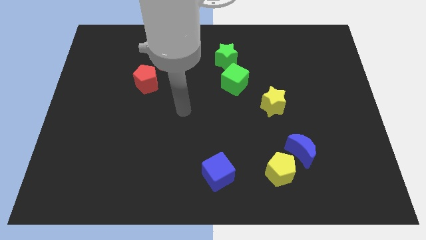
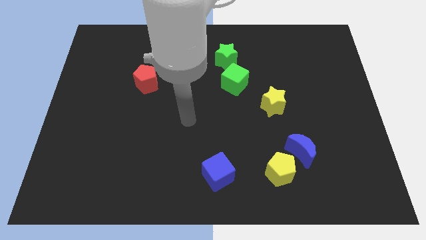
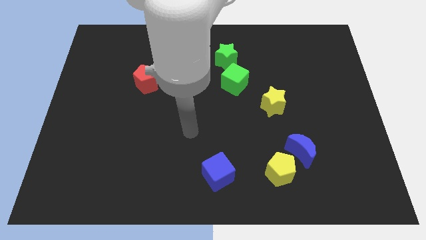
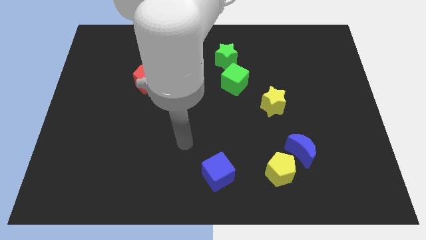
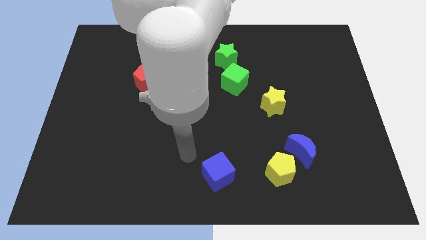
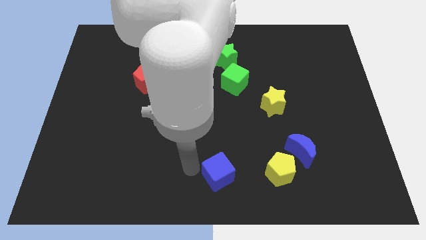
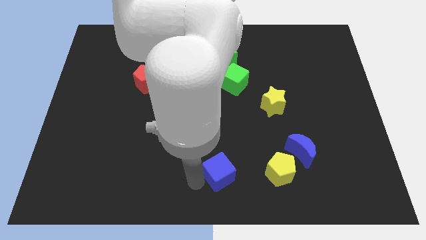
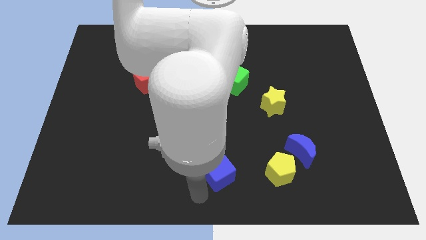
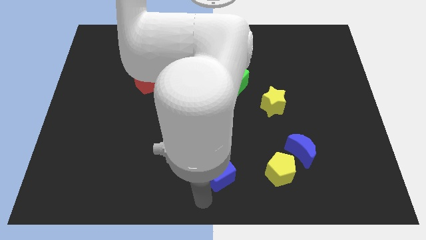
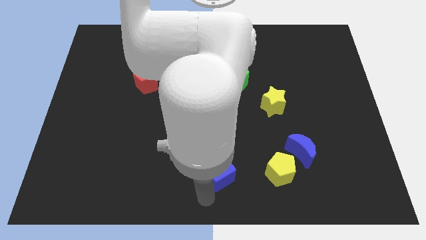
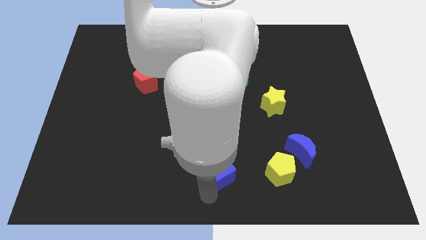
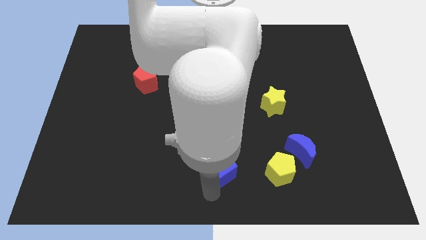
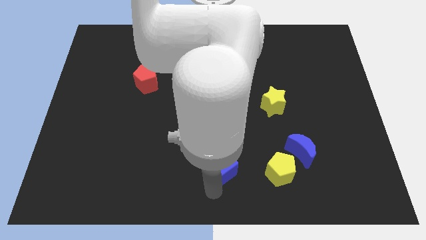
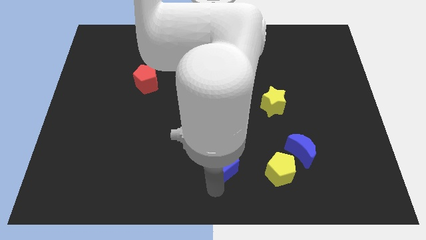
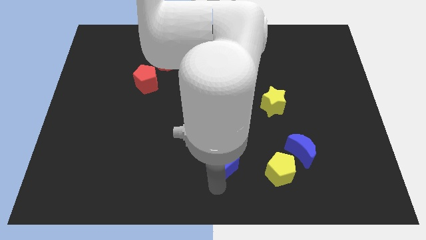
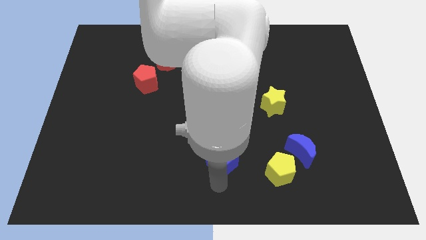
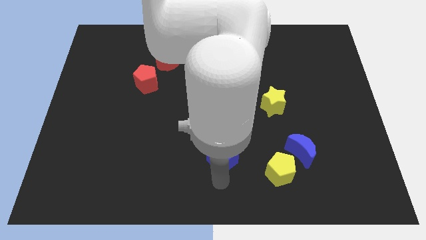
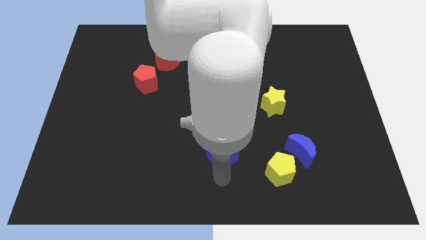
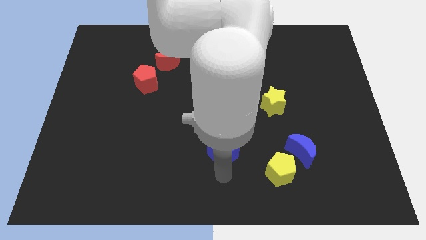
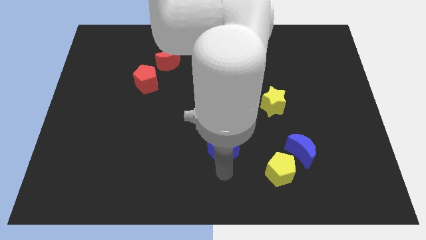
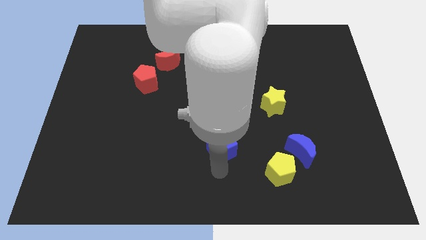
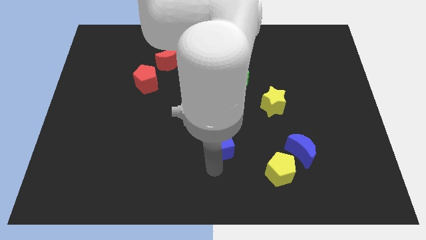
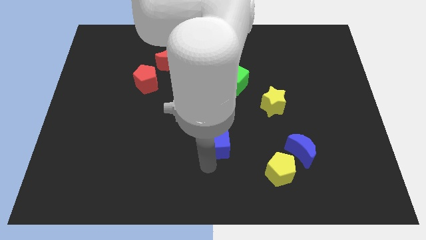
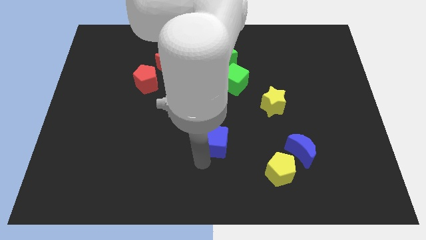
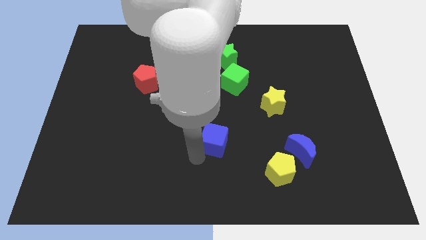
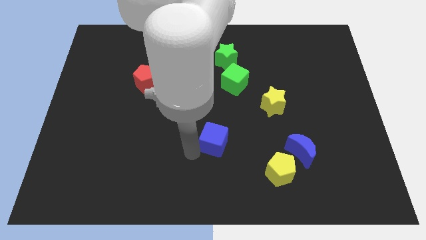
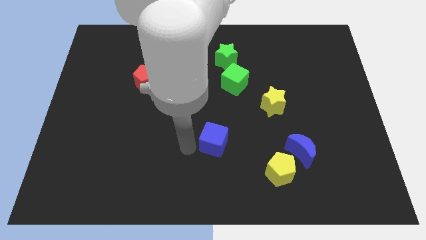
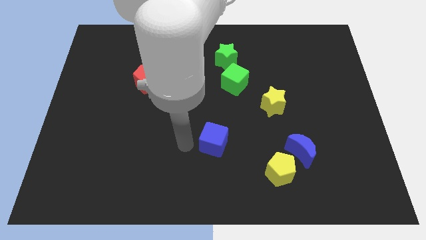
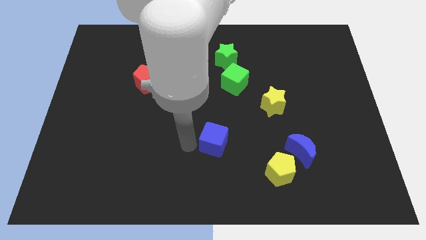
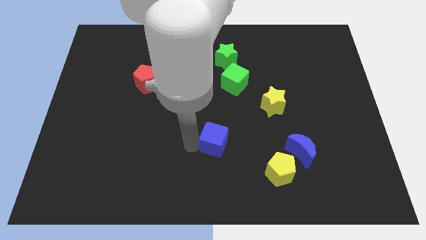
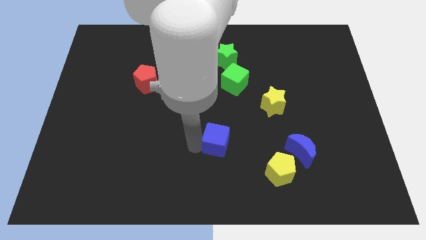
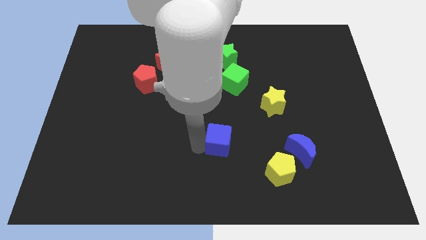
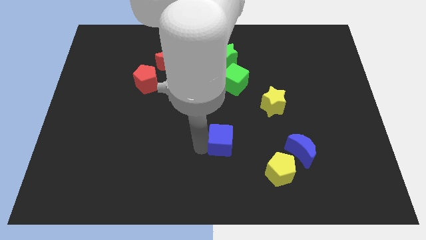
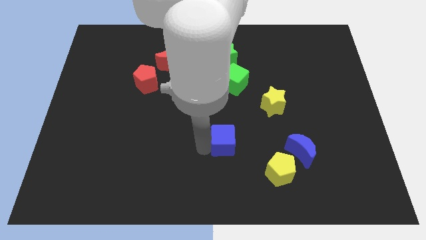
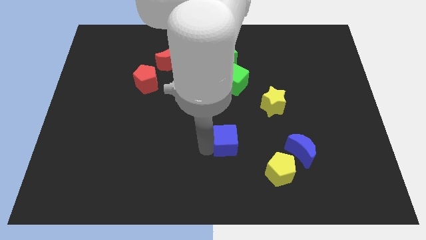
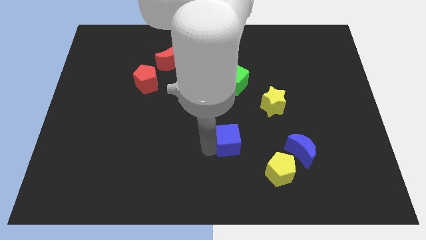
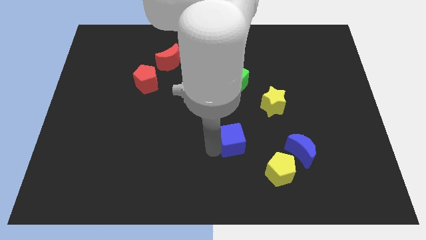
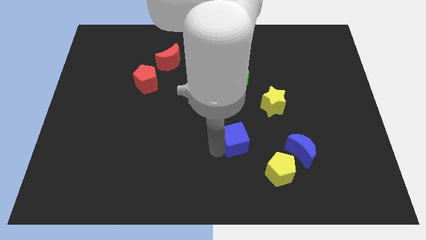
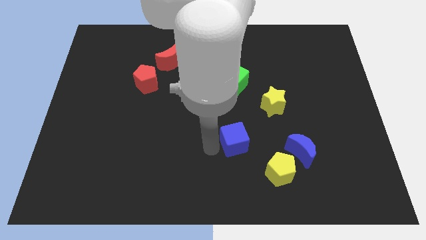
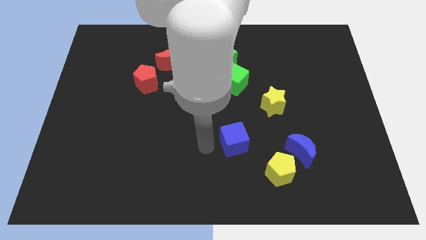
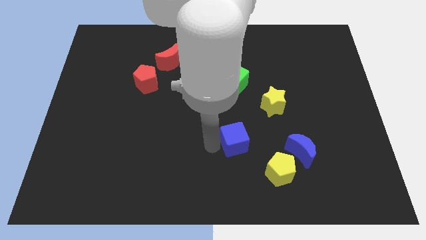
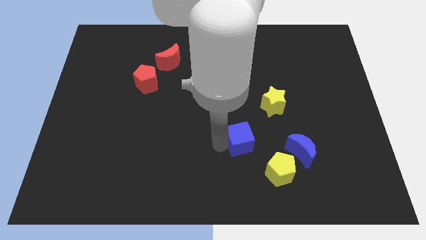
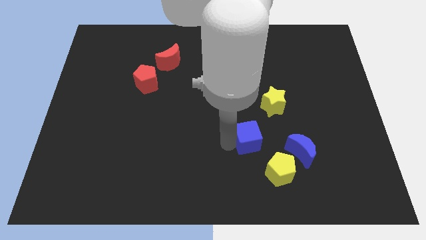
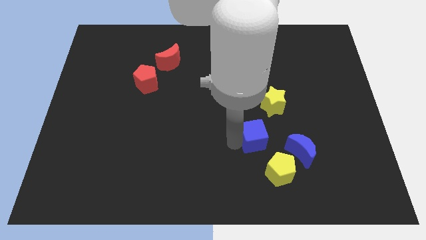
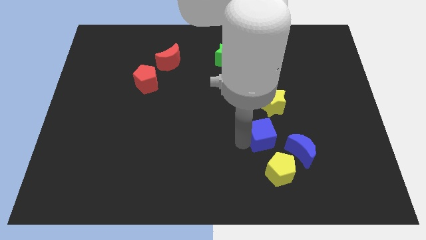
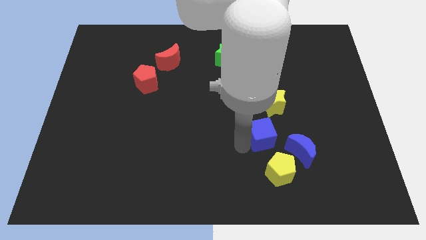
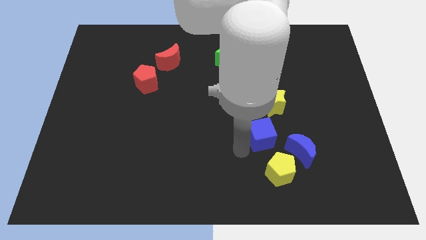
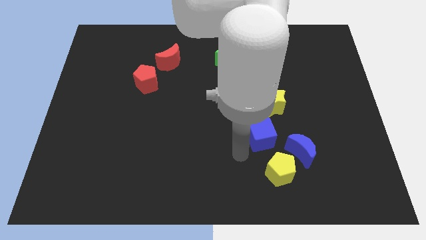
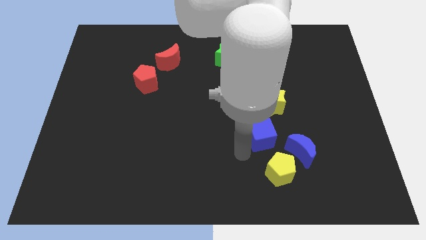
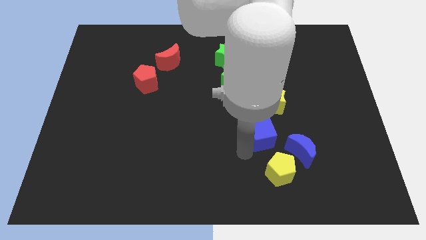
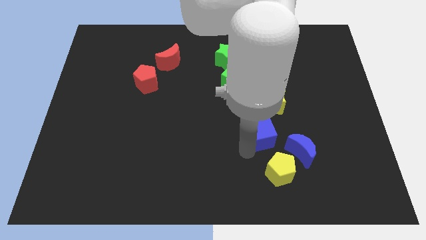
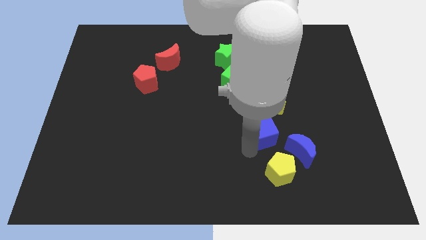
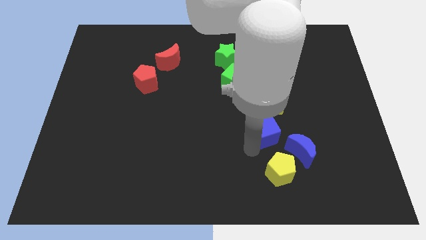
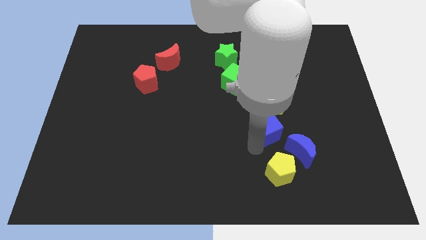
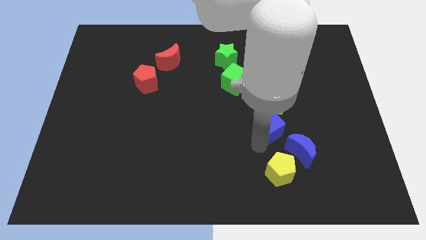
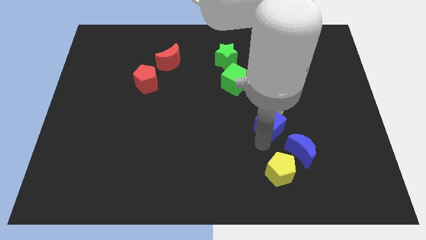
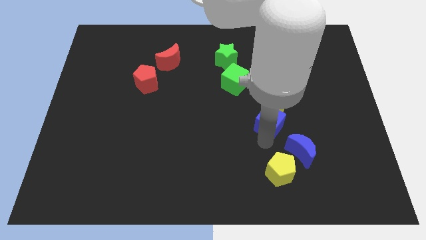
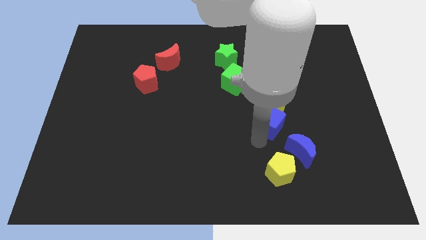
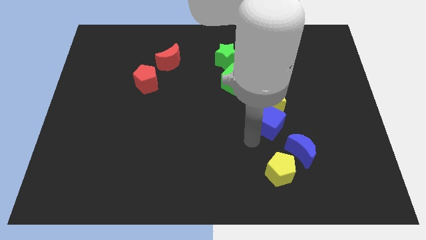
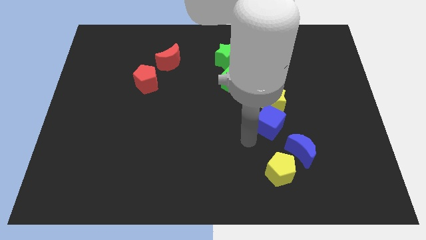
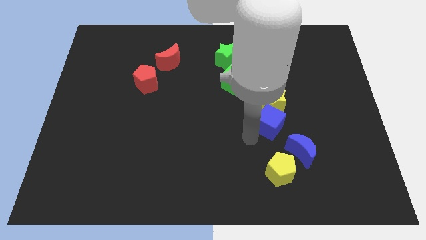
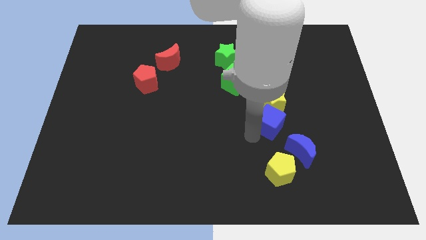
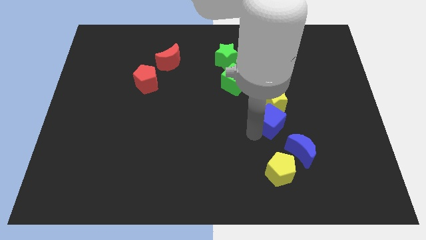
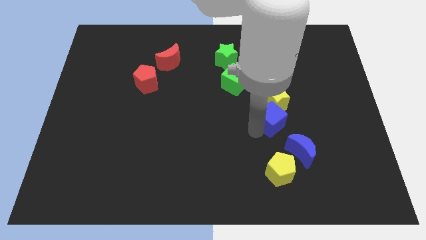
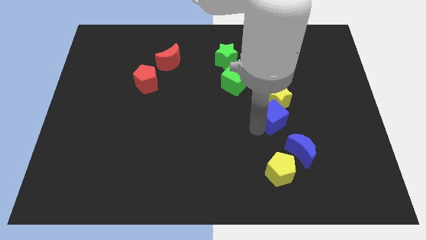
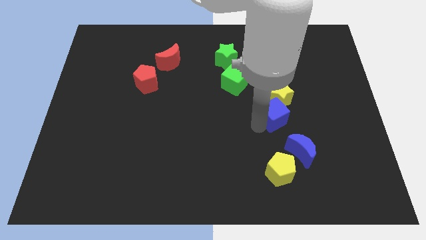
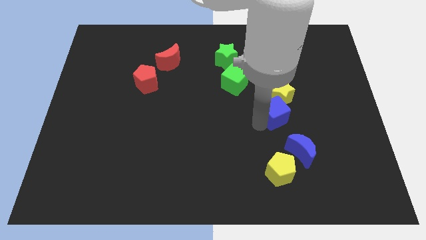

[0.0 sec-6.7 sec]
move the blue cube upwards and to the right diagonally

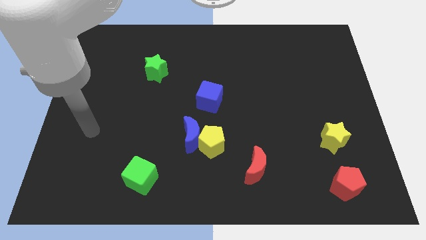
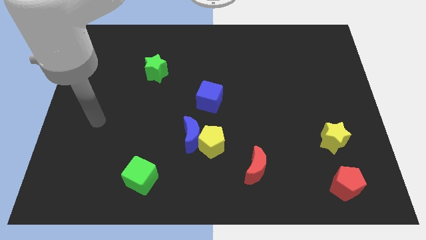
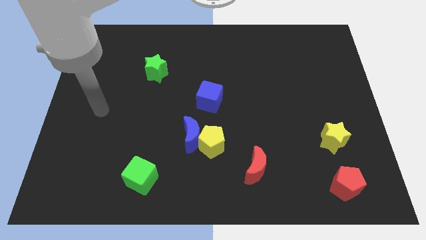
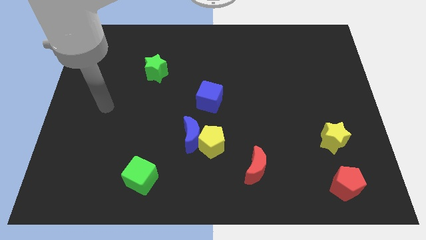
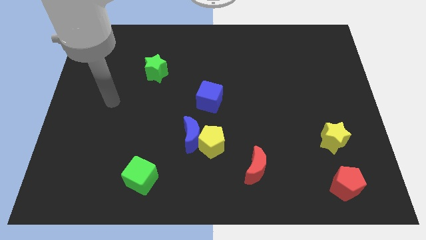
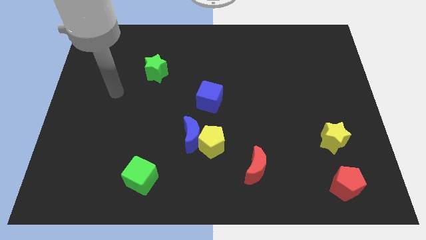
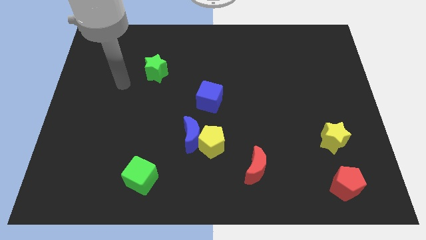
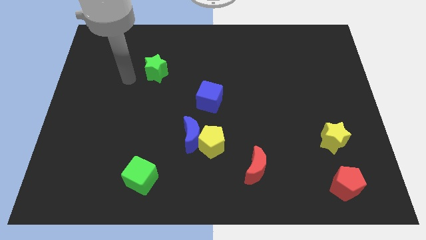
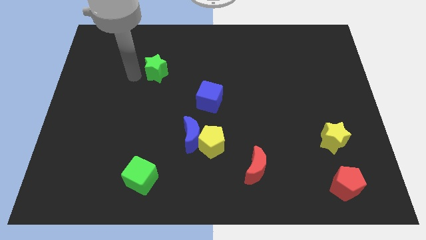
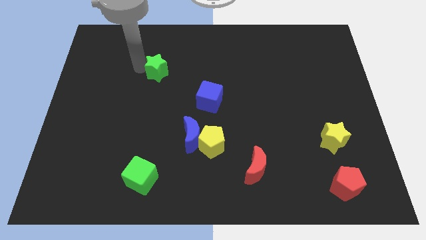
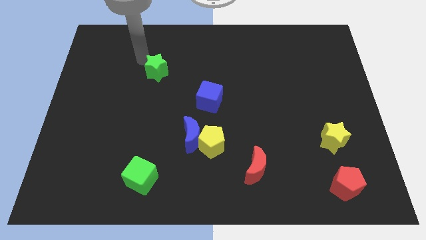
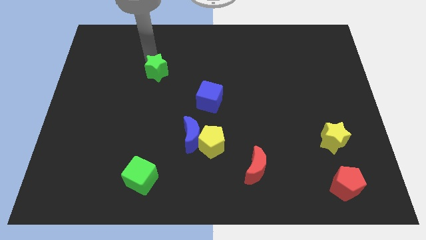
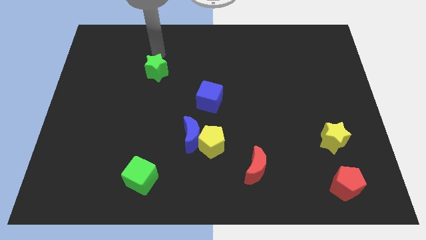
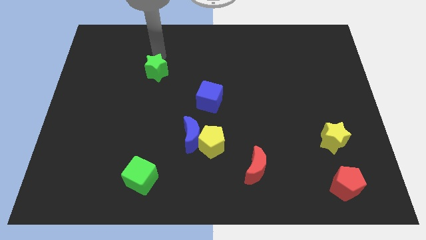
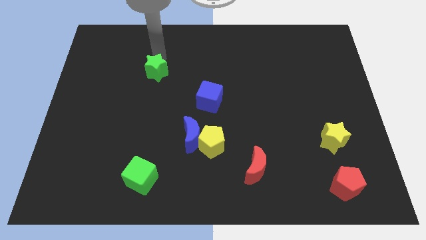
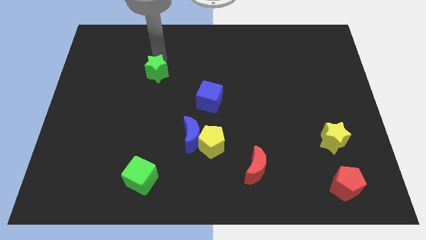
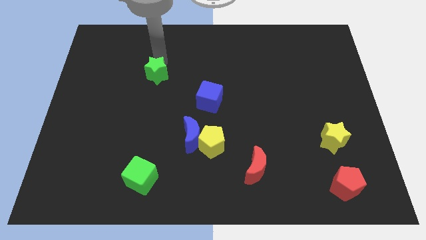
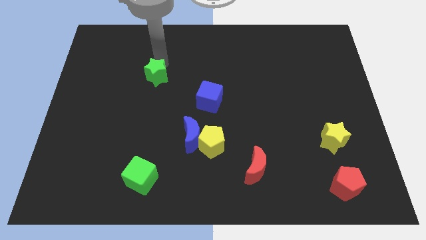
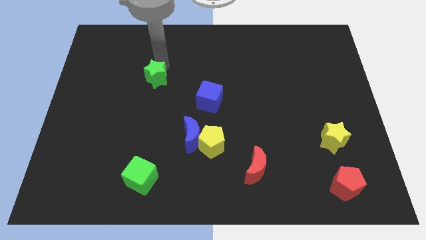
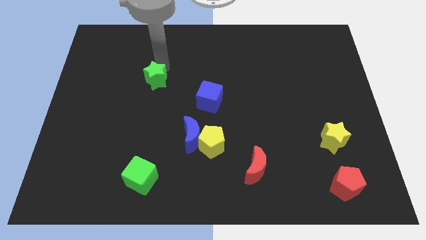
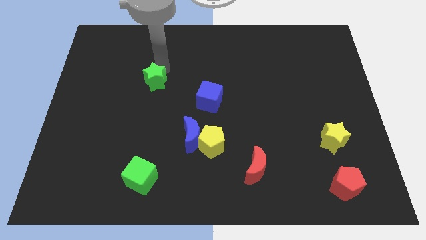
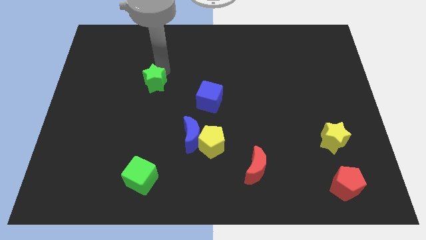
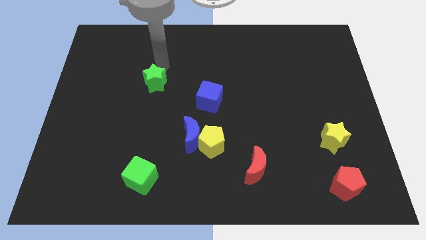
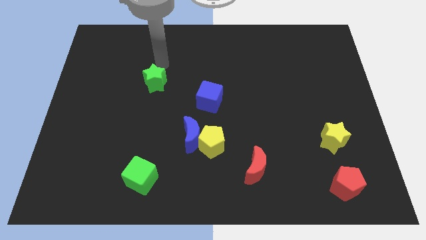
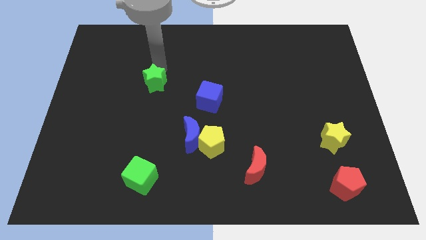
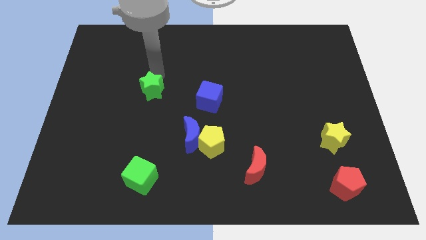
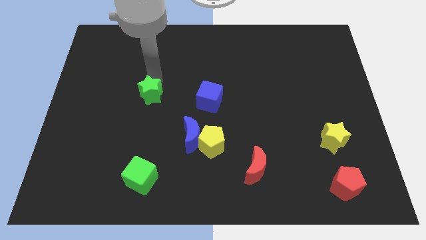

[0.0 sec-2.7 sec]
slide the green star a bit downwards
